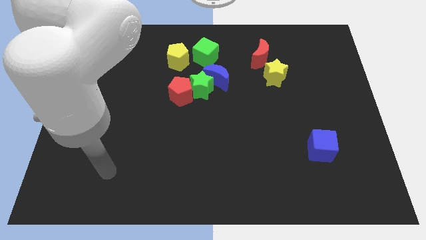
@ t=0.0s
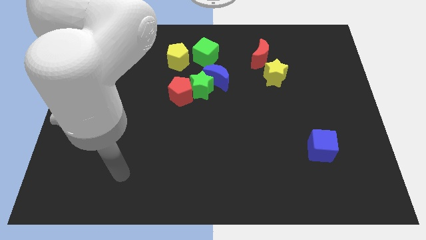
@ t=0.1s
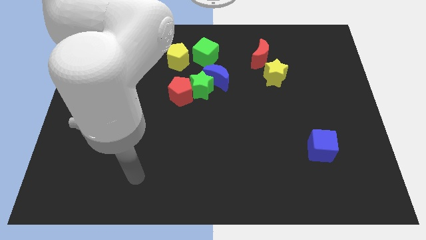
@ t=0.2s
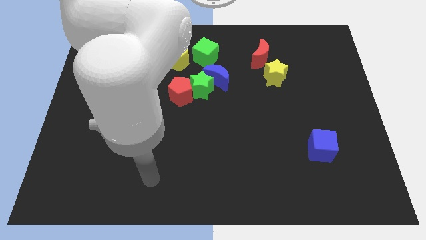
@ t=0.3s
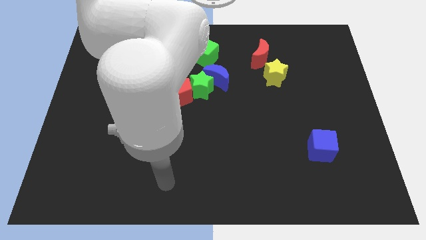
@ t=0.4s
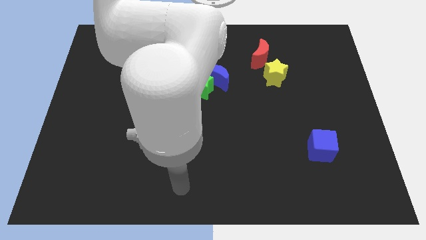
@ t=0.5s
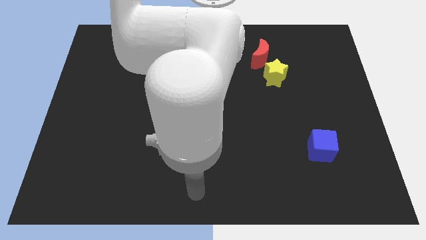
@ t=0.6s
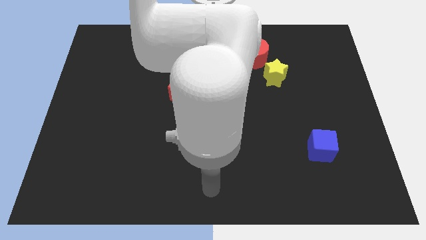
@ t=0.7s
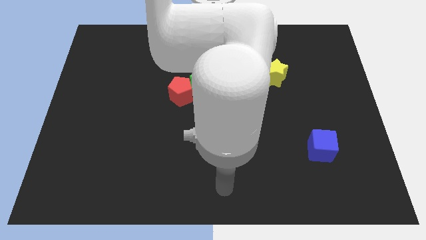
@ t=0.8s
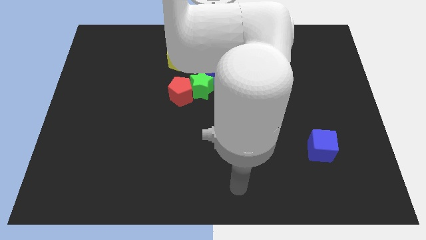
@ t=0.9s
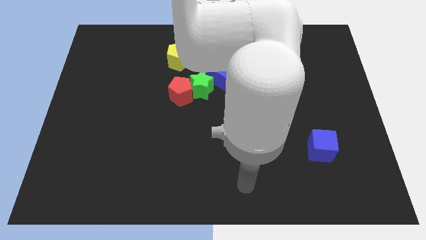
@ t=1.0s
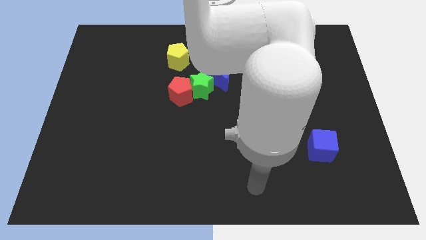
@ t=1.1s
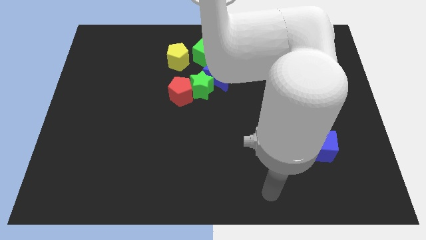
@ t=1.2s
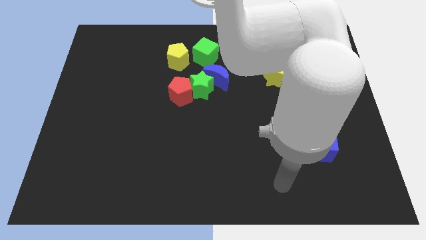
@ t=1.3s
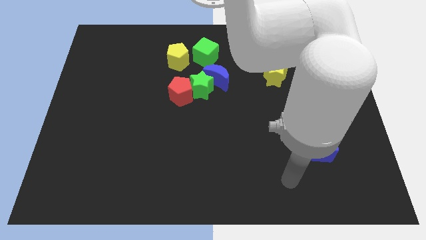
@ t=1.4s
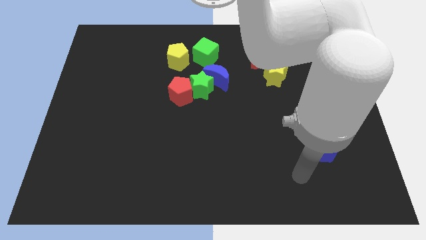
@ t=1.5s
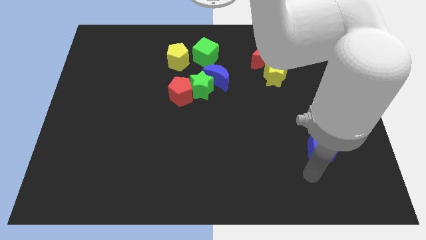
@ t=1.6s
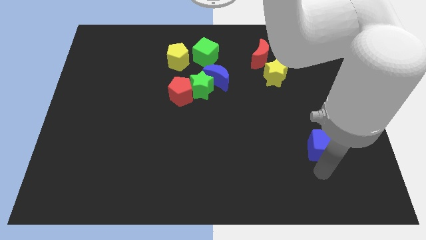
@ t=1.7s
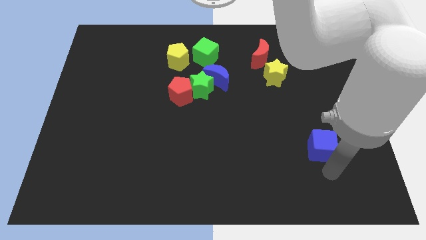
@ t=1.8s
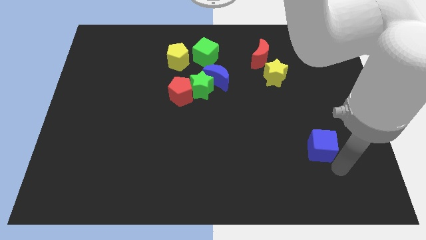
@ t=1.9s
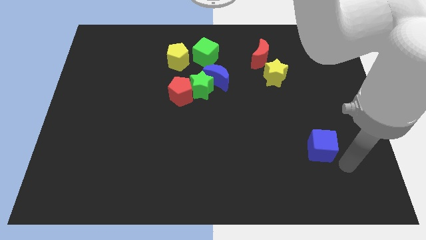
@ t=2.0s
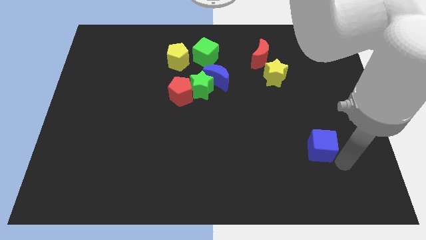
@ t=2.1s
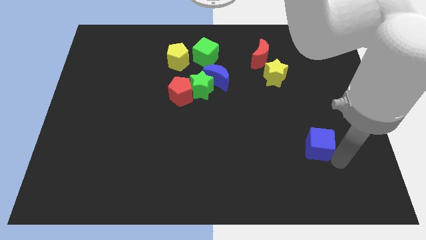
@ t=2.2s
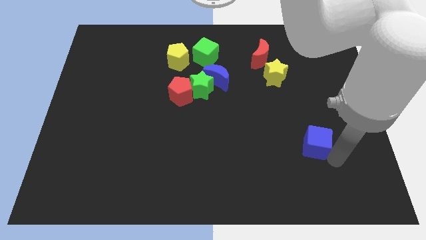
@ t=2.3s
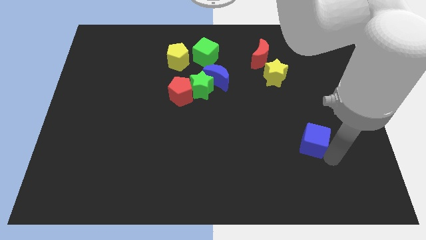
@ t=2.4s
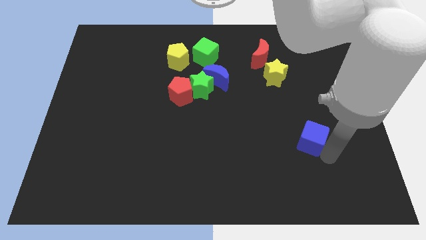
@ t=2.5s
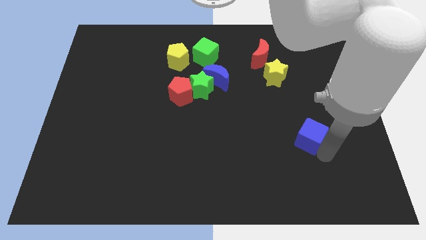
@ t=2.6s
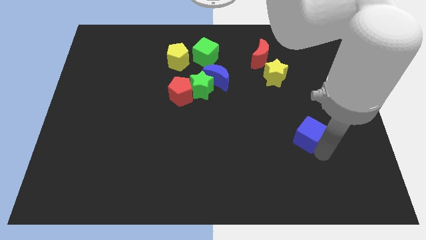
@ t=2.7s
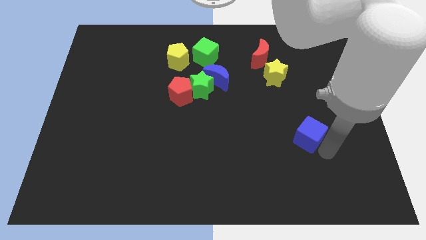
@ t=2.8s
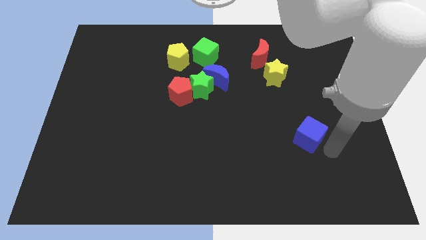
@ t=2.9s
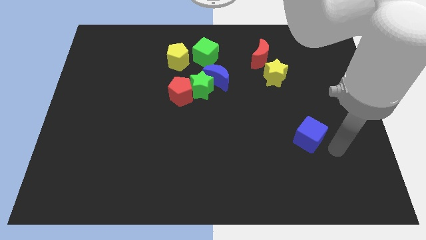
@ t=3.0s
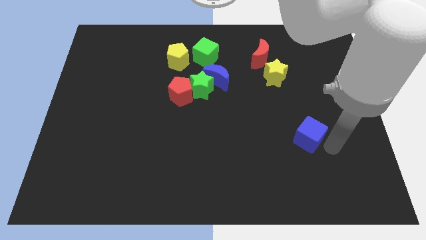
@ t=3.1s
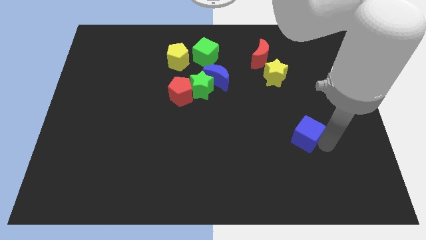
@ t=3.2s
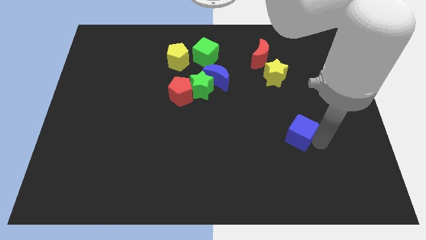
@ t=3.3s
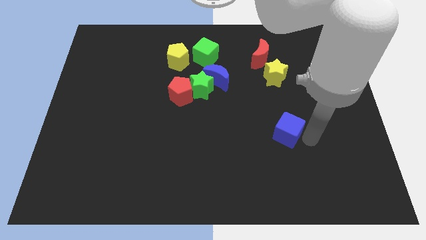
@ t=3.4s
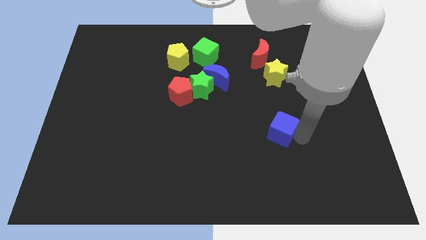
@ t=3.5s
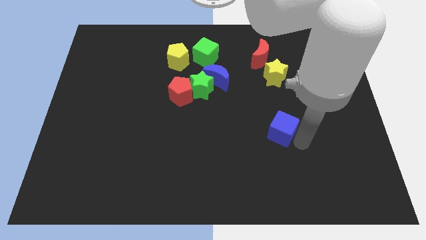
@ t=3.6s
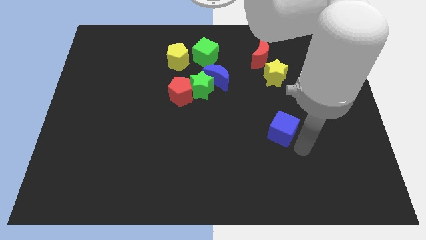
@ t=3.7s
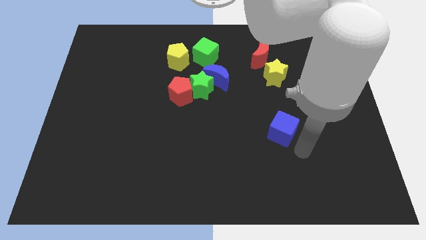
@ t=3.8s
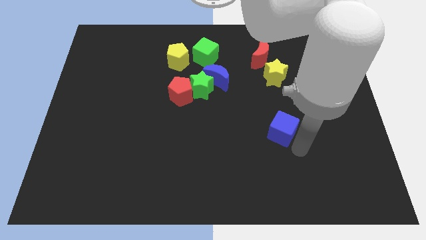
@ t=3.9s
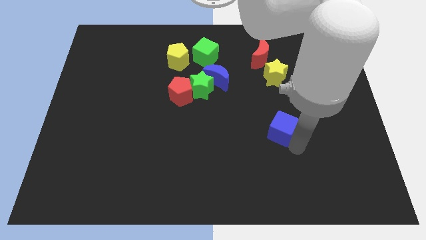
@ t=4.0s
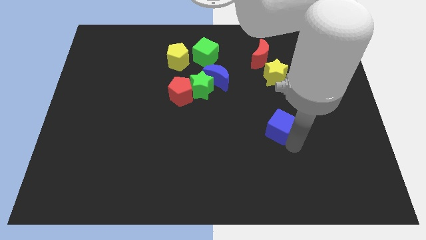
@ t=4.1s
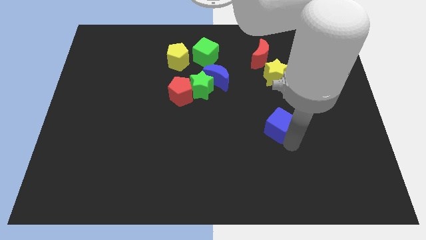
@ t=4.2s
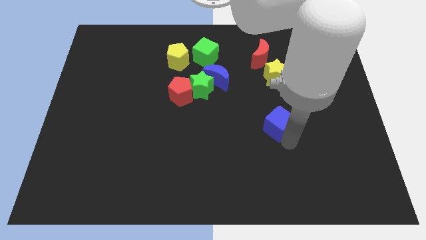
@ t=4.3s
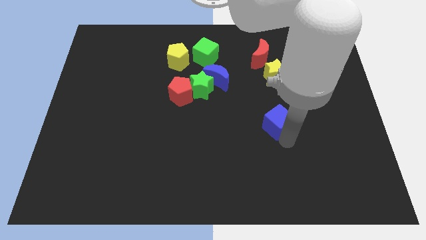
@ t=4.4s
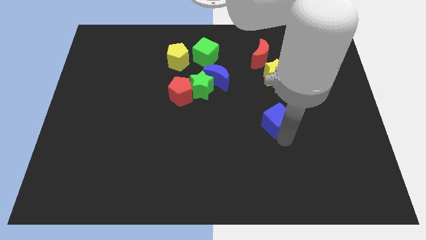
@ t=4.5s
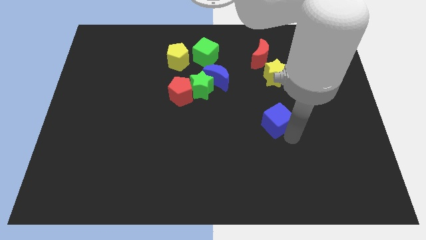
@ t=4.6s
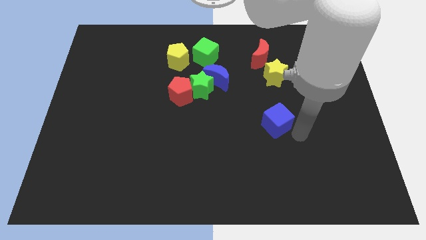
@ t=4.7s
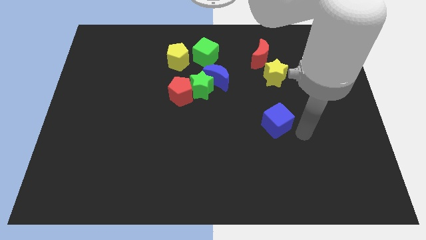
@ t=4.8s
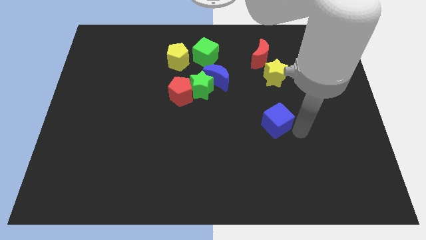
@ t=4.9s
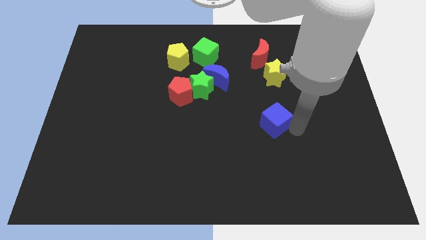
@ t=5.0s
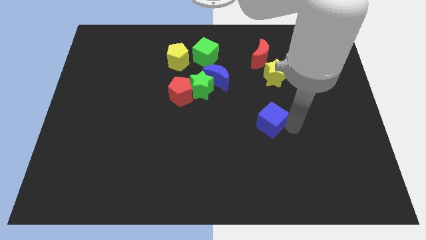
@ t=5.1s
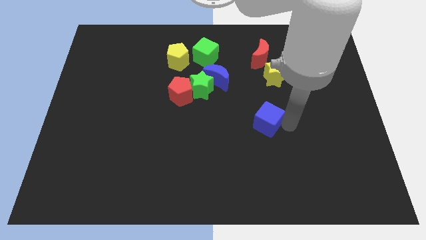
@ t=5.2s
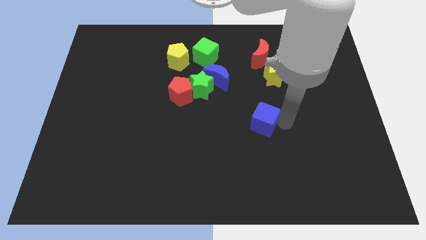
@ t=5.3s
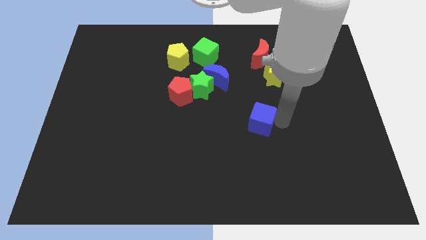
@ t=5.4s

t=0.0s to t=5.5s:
put the blue cube to the middle of the board

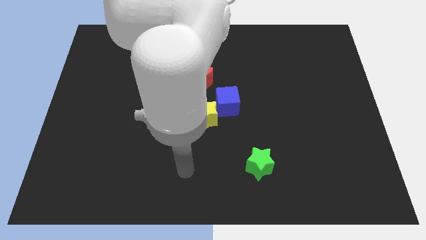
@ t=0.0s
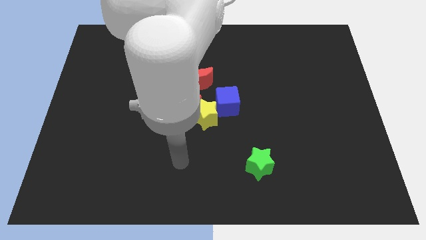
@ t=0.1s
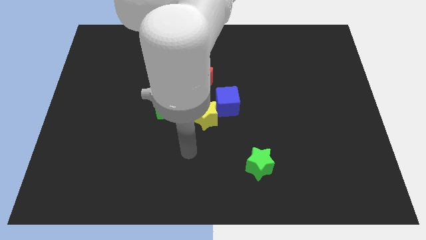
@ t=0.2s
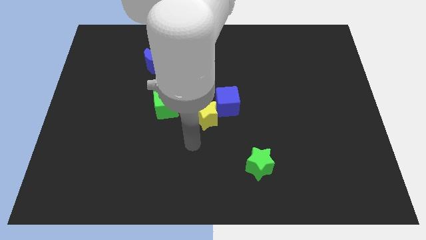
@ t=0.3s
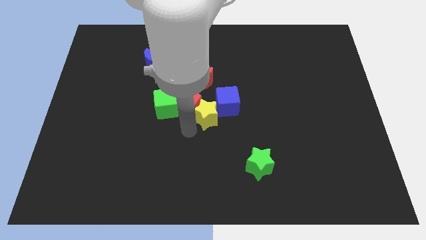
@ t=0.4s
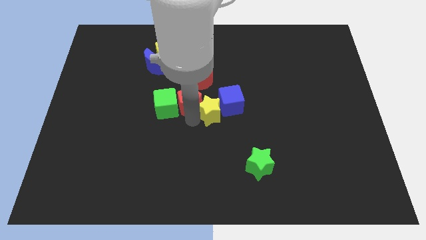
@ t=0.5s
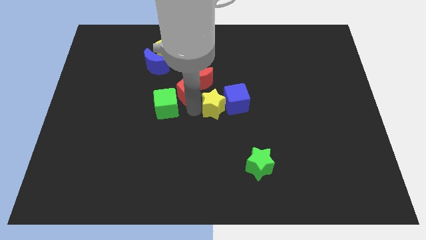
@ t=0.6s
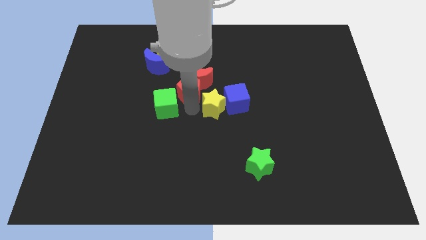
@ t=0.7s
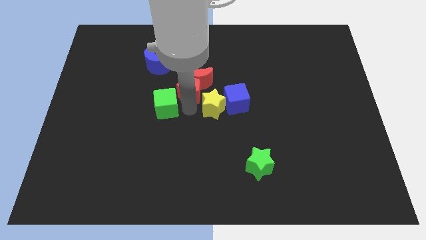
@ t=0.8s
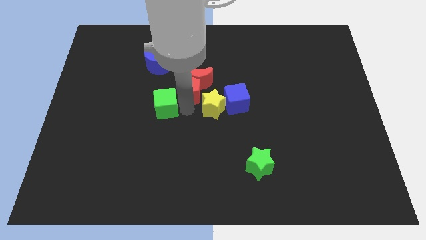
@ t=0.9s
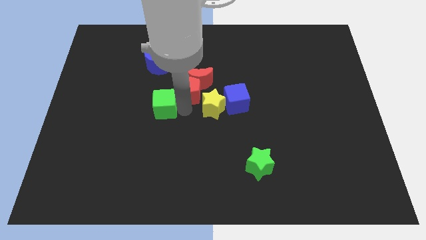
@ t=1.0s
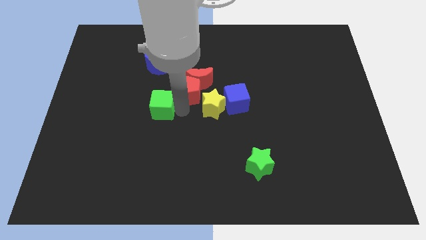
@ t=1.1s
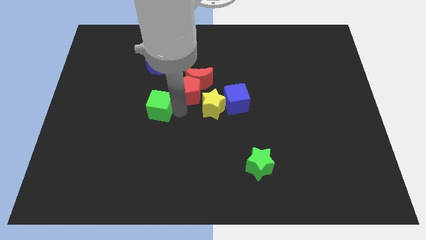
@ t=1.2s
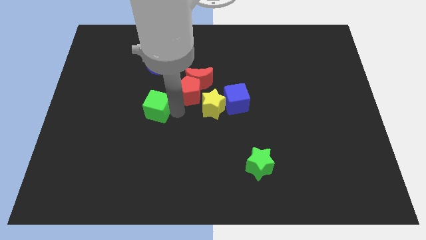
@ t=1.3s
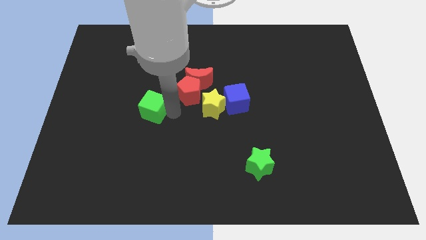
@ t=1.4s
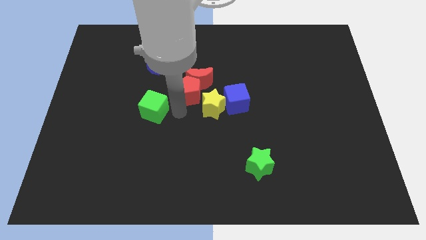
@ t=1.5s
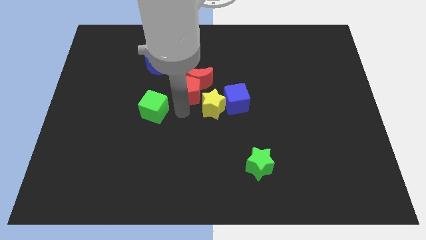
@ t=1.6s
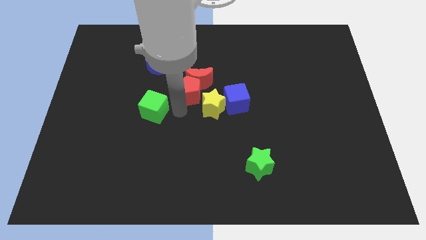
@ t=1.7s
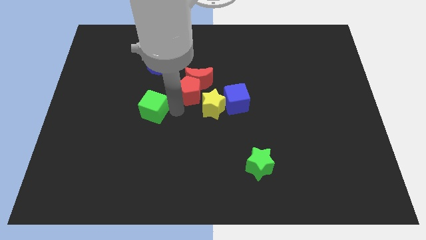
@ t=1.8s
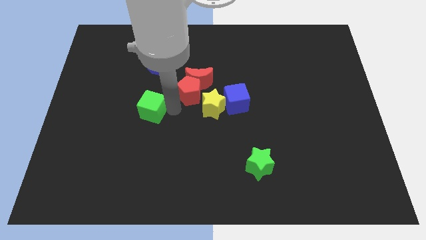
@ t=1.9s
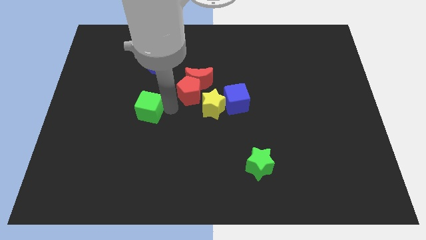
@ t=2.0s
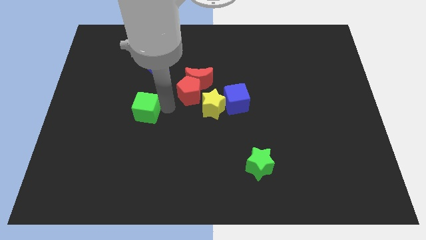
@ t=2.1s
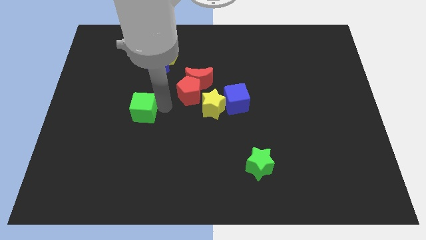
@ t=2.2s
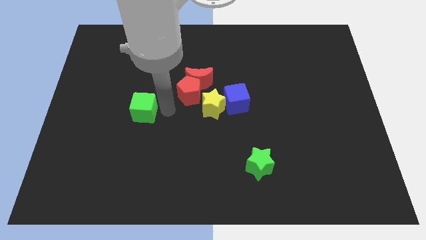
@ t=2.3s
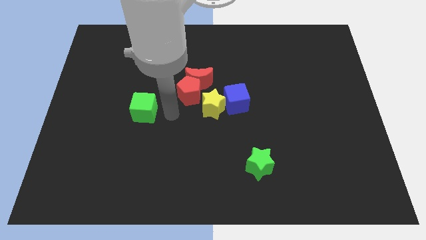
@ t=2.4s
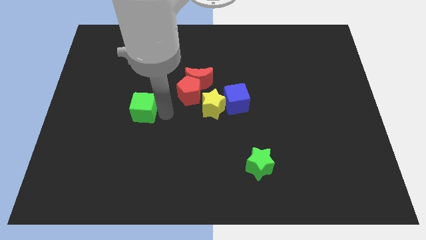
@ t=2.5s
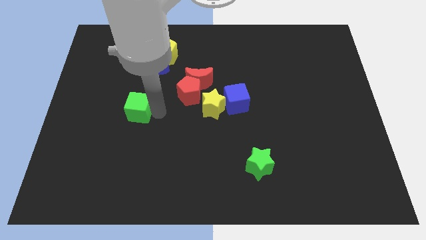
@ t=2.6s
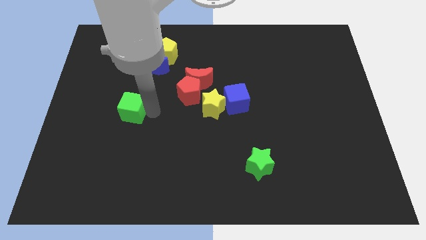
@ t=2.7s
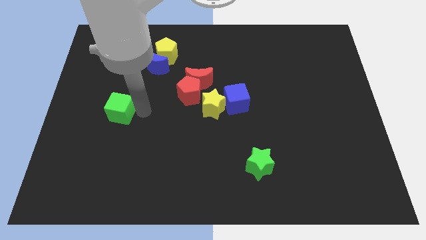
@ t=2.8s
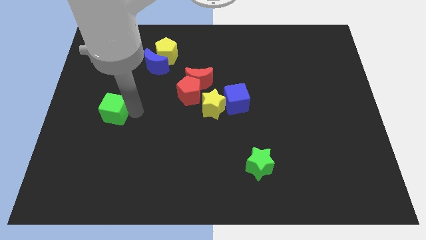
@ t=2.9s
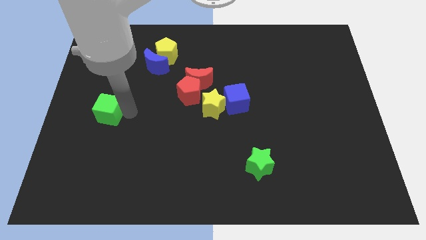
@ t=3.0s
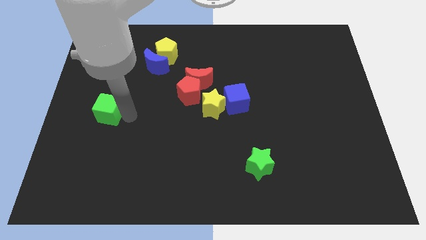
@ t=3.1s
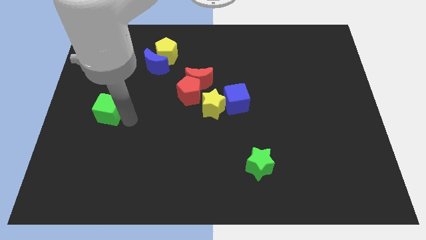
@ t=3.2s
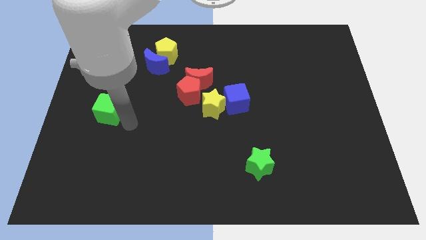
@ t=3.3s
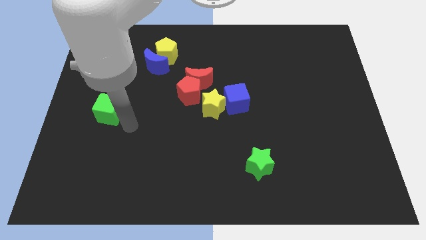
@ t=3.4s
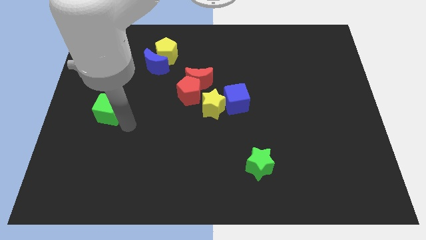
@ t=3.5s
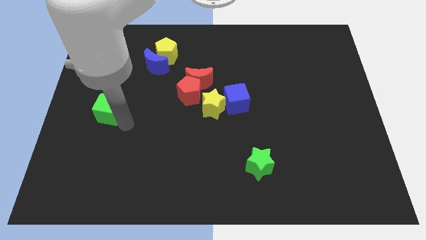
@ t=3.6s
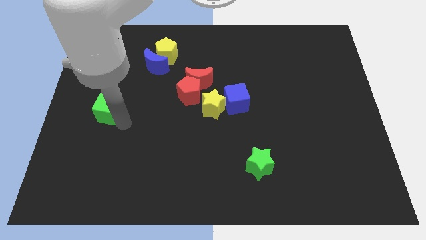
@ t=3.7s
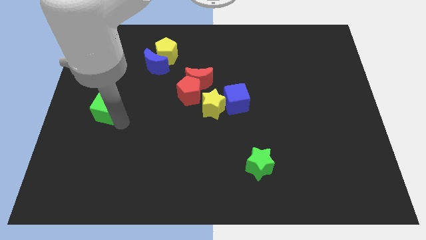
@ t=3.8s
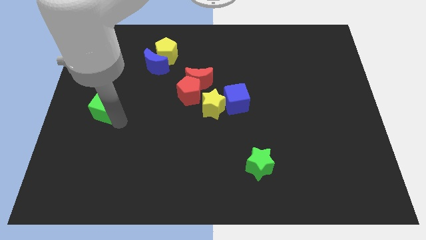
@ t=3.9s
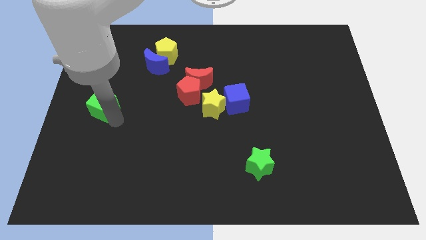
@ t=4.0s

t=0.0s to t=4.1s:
push the green cube to the left side of the board
